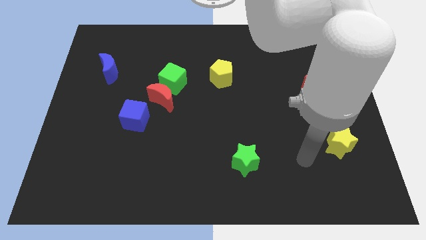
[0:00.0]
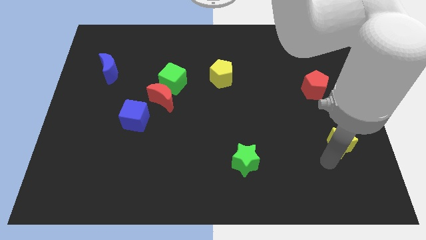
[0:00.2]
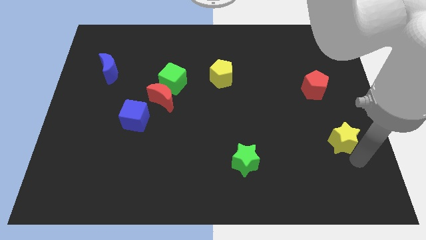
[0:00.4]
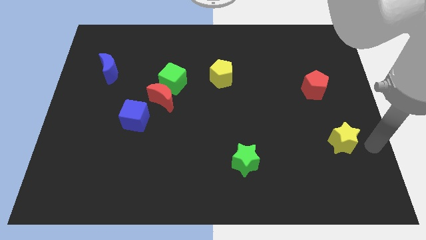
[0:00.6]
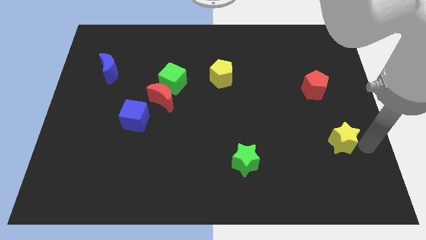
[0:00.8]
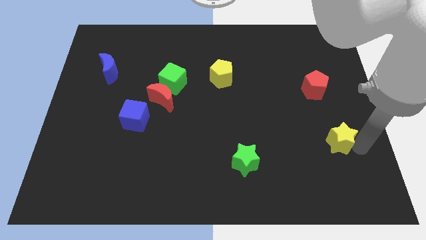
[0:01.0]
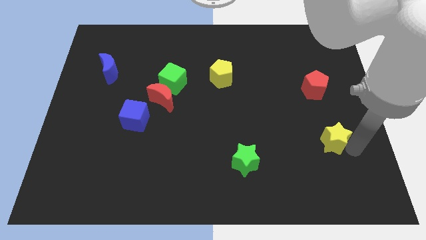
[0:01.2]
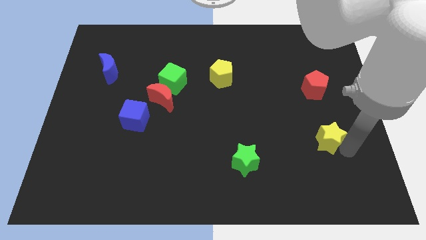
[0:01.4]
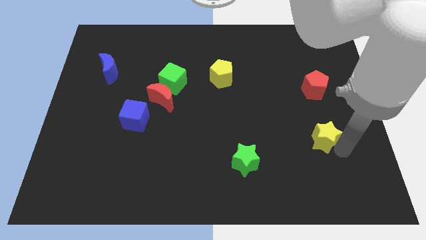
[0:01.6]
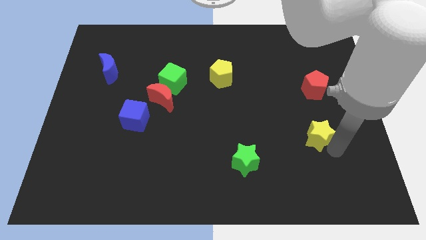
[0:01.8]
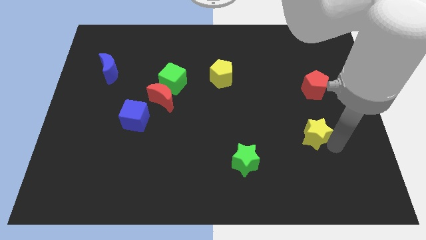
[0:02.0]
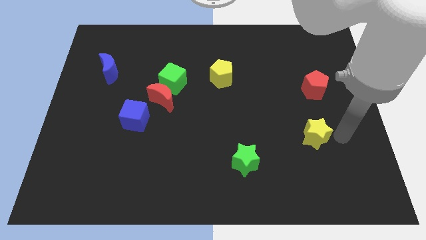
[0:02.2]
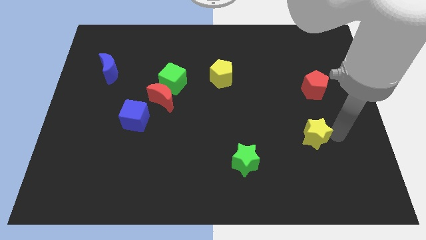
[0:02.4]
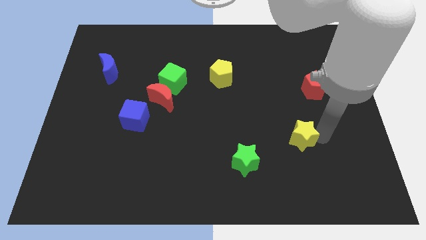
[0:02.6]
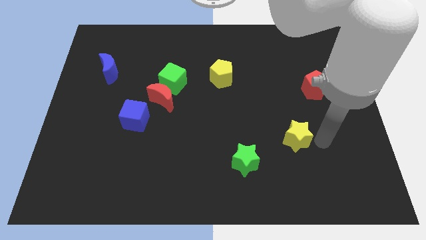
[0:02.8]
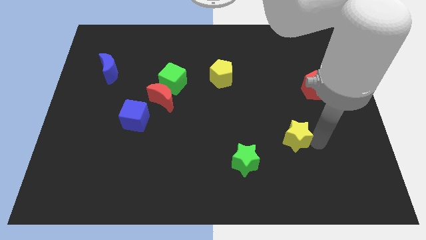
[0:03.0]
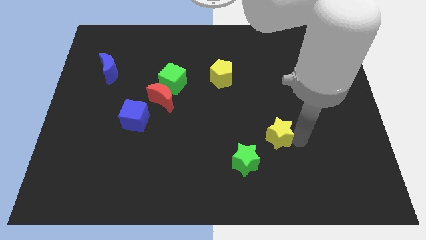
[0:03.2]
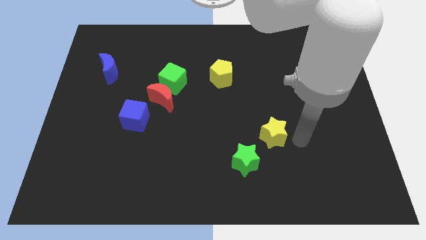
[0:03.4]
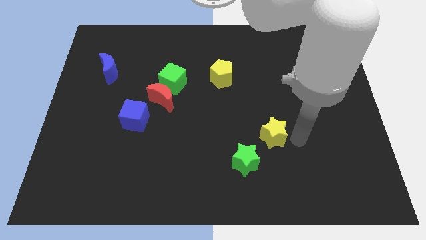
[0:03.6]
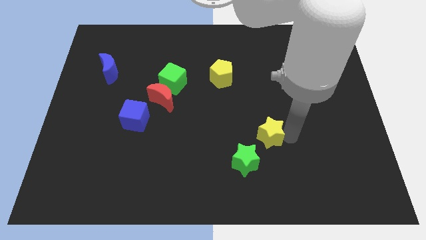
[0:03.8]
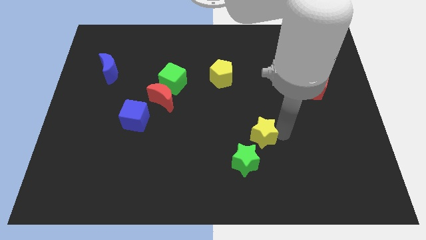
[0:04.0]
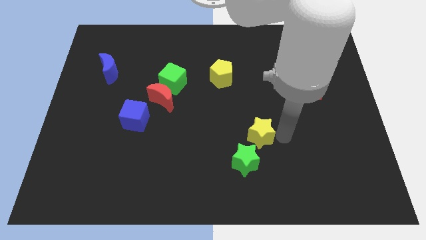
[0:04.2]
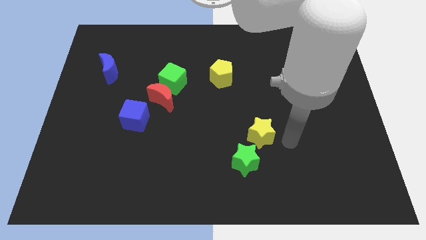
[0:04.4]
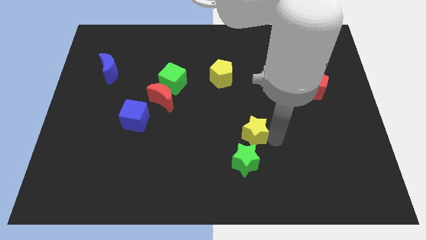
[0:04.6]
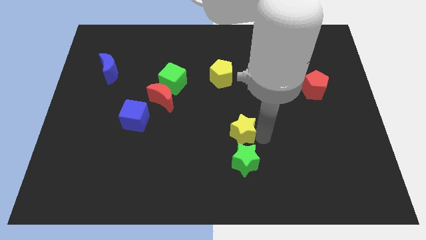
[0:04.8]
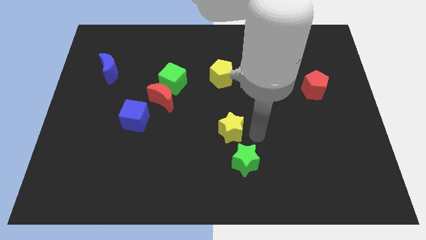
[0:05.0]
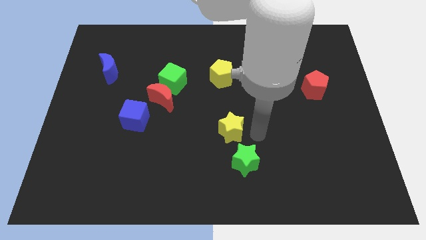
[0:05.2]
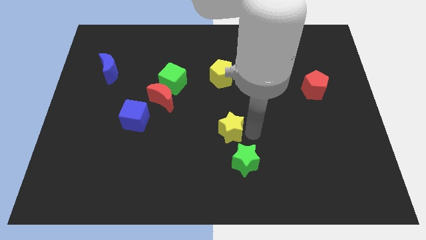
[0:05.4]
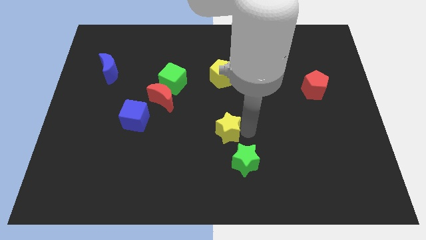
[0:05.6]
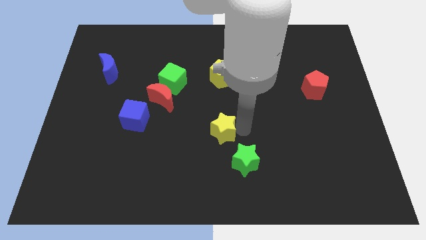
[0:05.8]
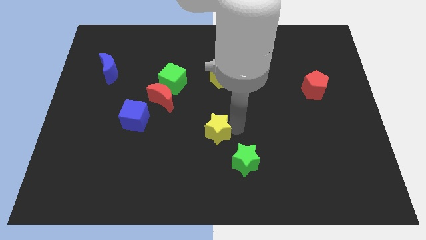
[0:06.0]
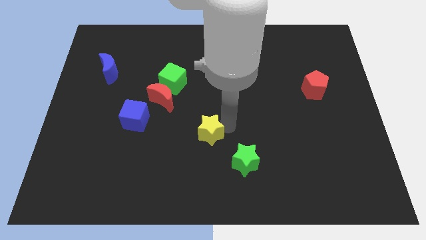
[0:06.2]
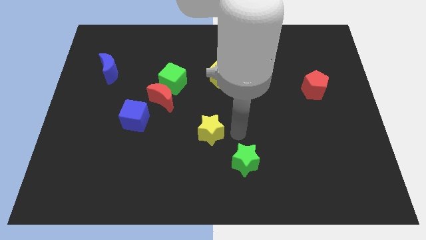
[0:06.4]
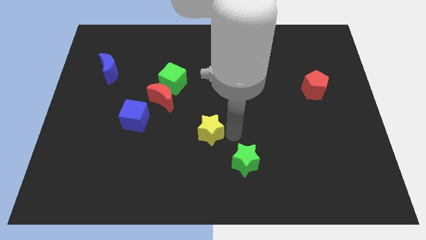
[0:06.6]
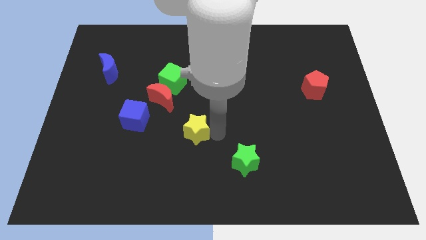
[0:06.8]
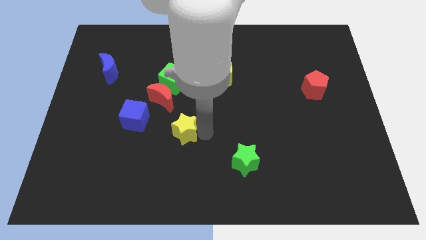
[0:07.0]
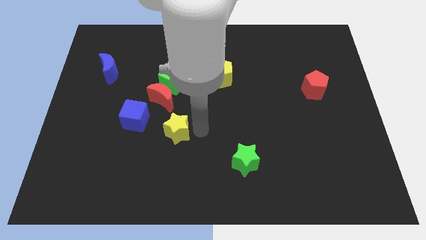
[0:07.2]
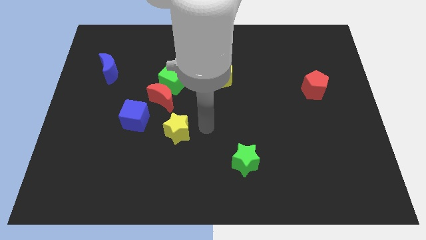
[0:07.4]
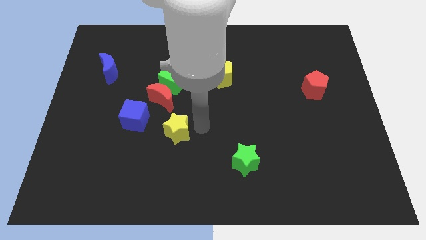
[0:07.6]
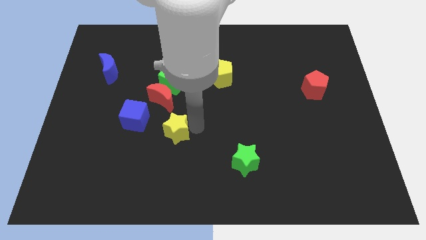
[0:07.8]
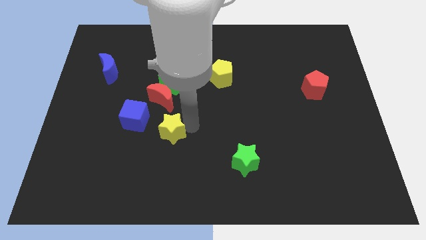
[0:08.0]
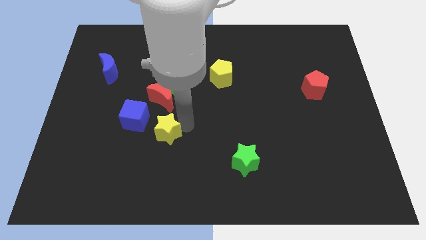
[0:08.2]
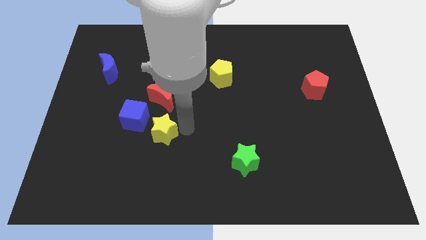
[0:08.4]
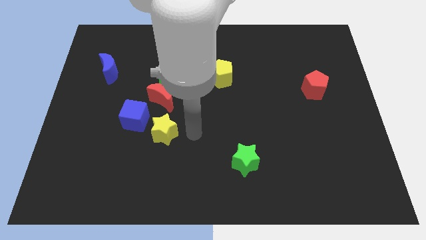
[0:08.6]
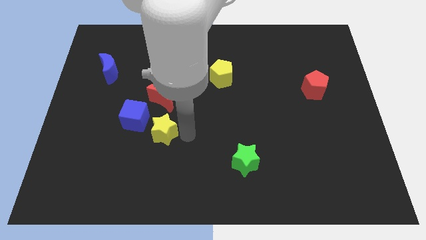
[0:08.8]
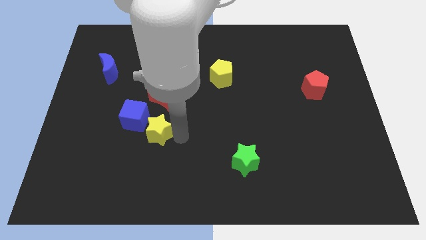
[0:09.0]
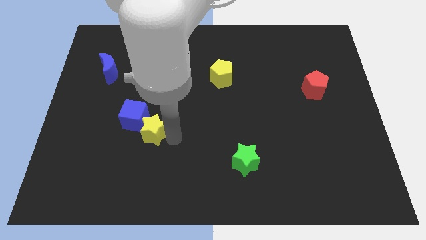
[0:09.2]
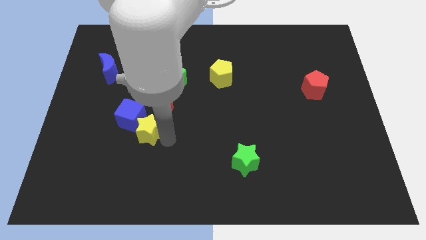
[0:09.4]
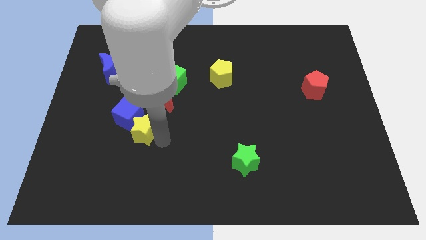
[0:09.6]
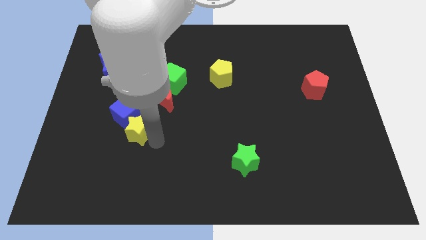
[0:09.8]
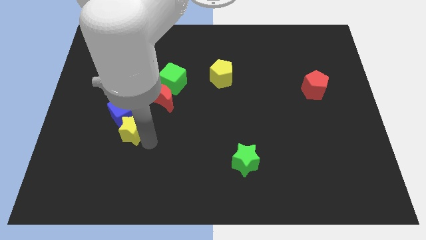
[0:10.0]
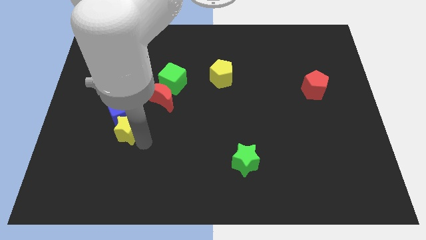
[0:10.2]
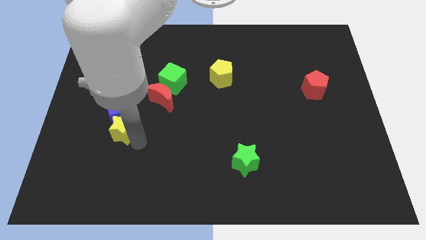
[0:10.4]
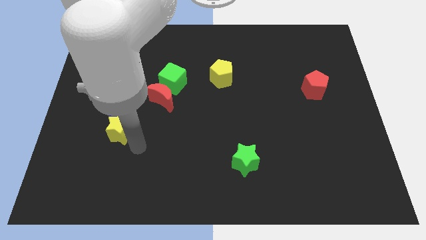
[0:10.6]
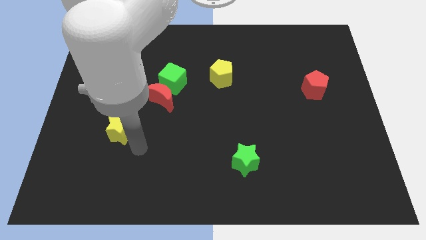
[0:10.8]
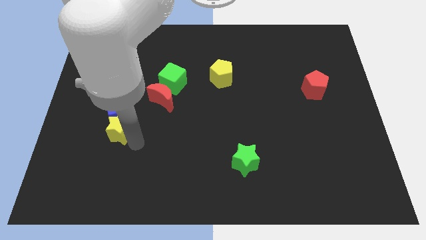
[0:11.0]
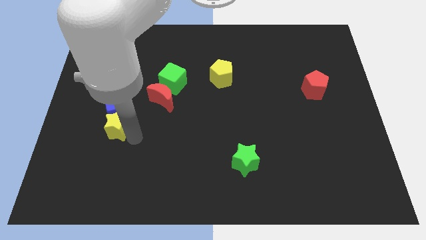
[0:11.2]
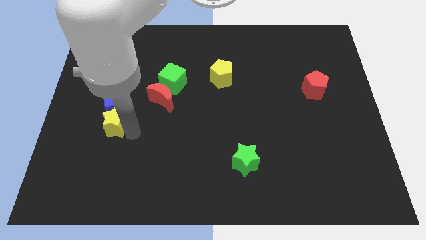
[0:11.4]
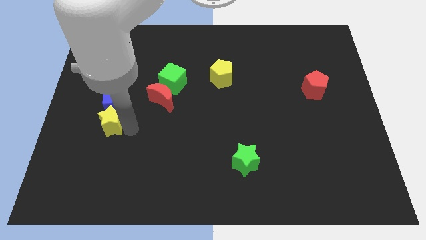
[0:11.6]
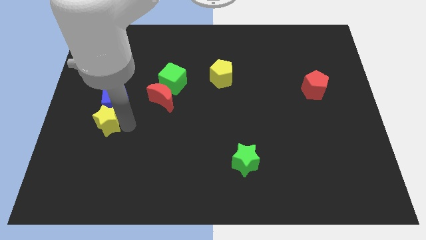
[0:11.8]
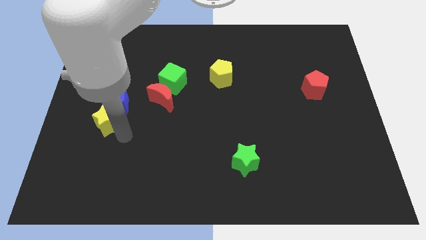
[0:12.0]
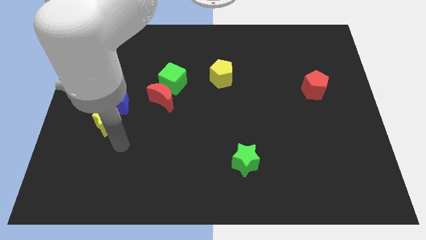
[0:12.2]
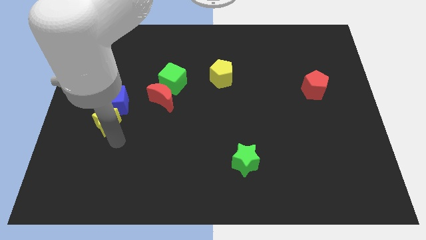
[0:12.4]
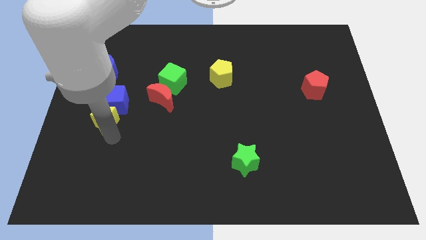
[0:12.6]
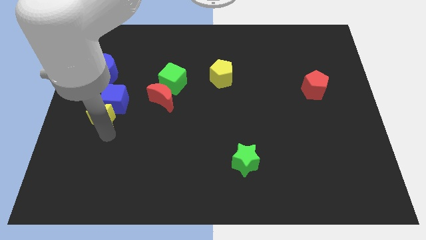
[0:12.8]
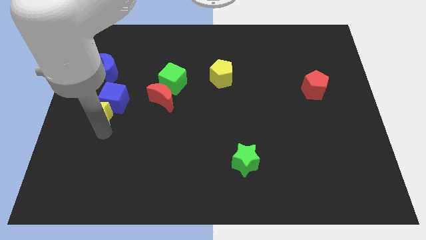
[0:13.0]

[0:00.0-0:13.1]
slide the yellow star to the left side of the board
